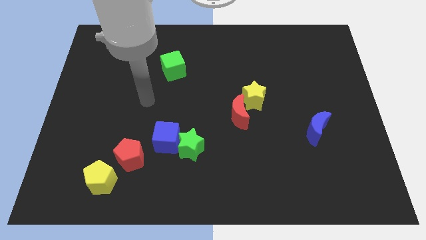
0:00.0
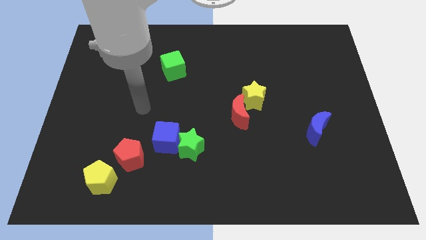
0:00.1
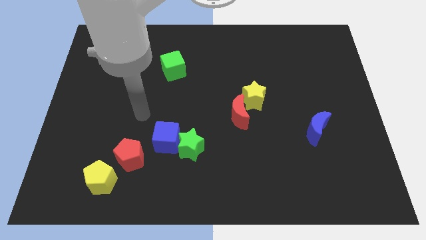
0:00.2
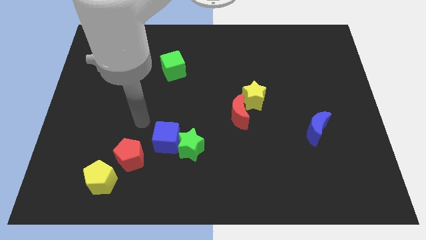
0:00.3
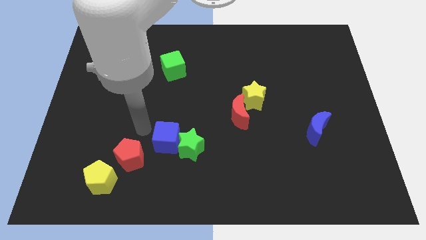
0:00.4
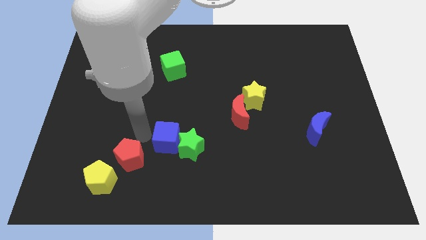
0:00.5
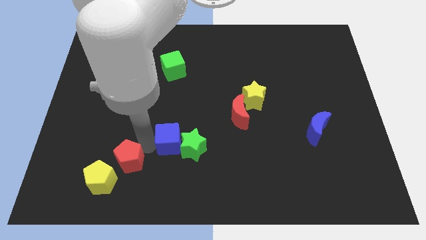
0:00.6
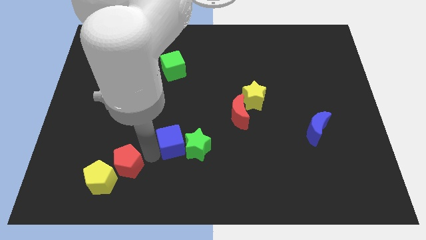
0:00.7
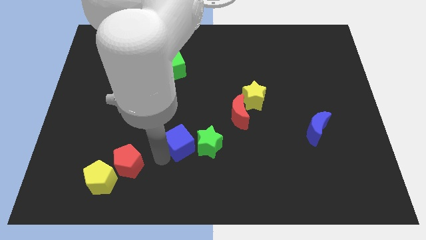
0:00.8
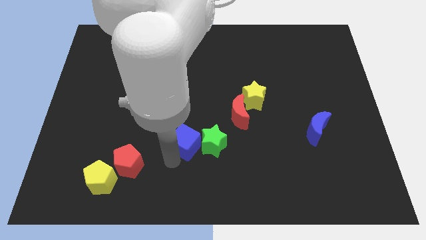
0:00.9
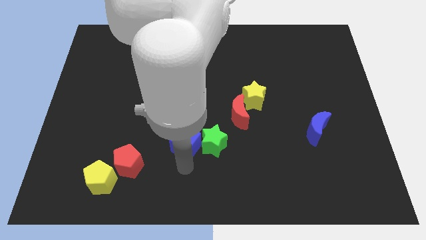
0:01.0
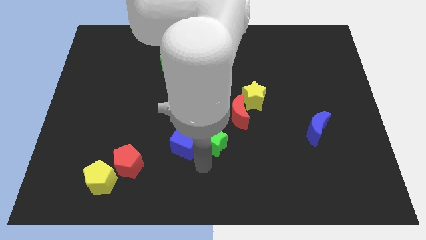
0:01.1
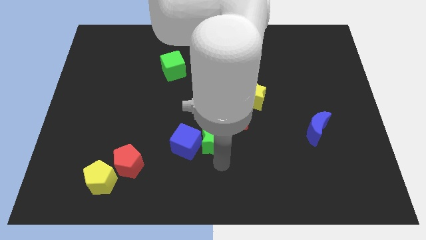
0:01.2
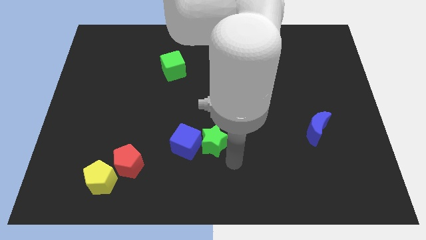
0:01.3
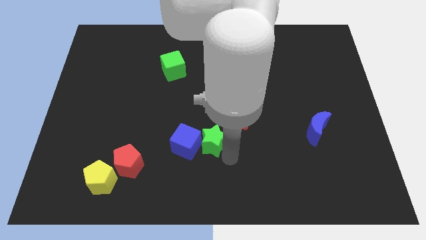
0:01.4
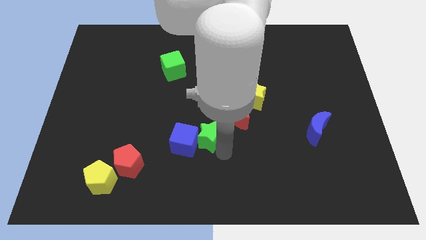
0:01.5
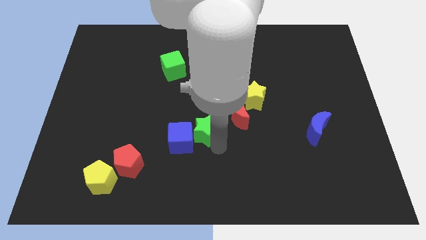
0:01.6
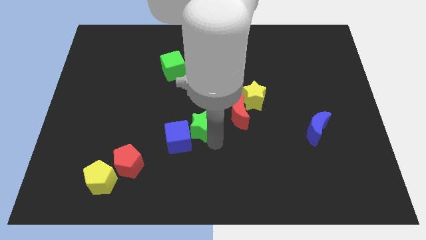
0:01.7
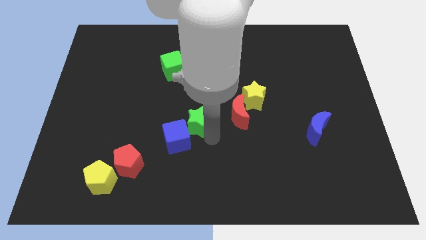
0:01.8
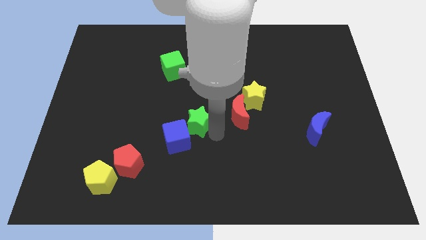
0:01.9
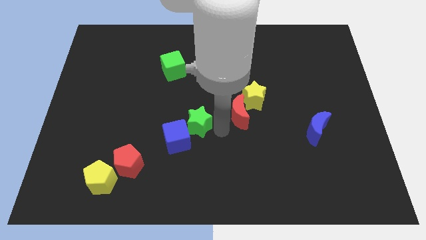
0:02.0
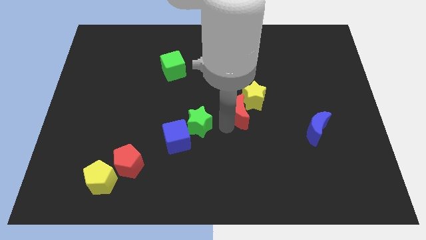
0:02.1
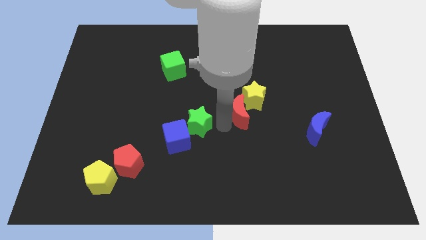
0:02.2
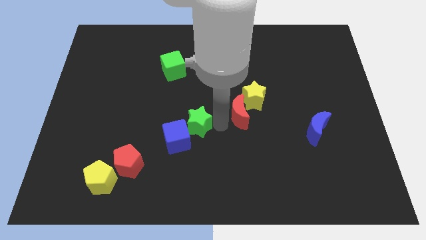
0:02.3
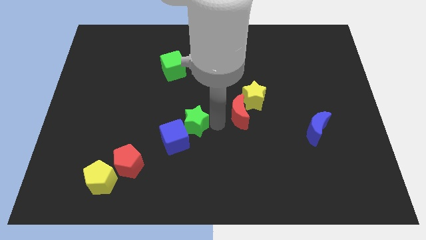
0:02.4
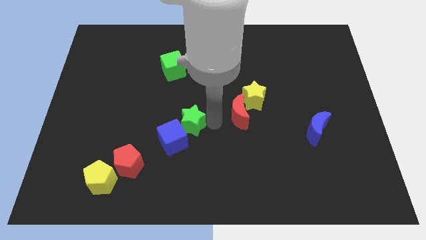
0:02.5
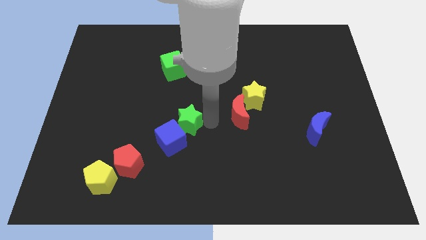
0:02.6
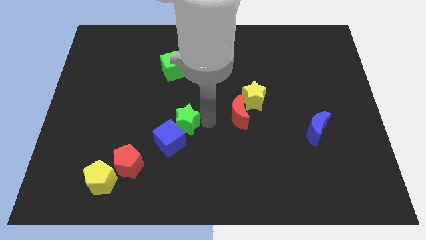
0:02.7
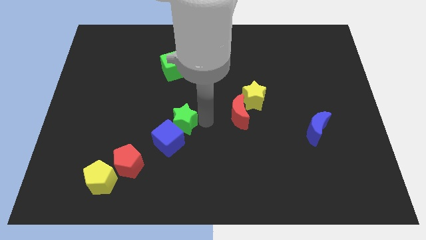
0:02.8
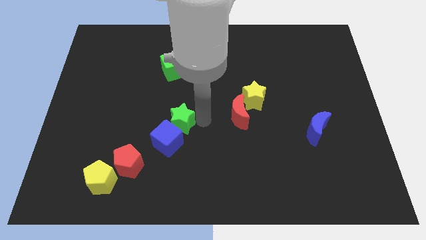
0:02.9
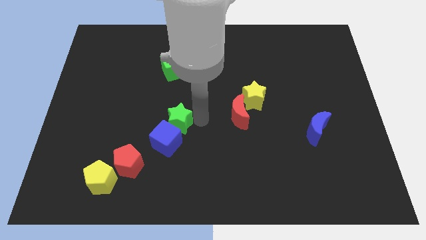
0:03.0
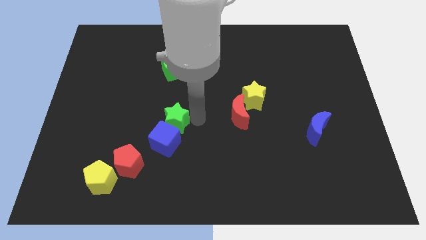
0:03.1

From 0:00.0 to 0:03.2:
push the green star upwards and to the left diagonally a bit

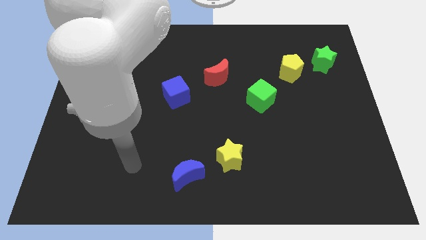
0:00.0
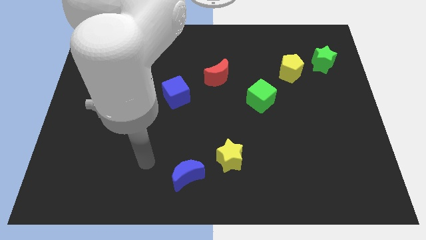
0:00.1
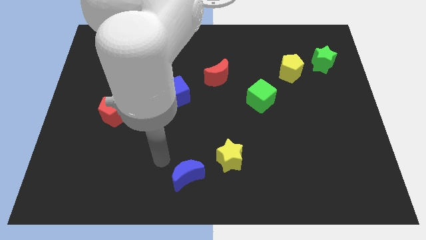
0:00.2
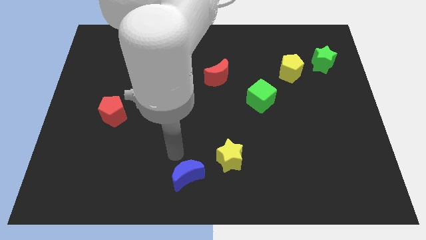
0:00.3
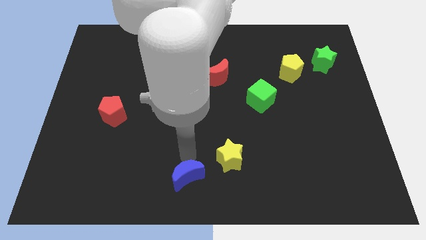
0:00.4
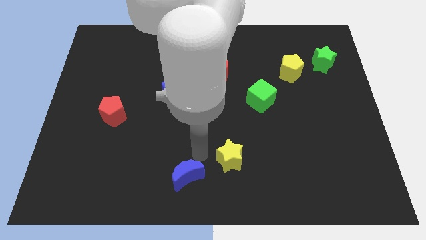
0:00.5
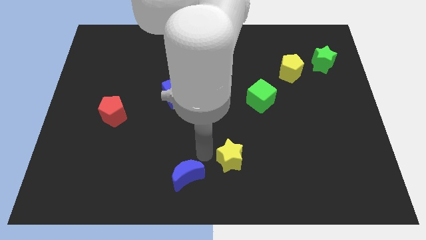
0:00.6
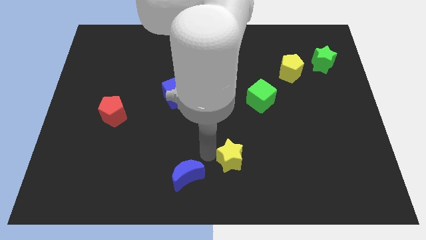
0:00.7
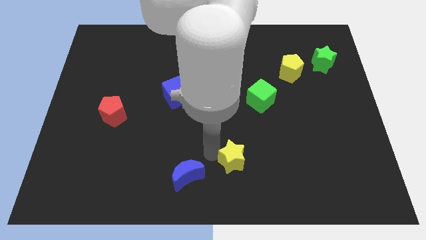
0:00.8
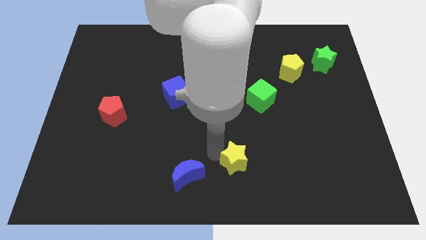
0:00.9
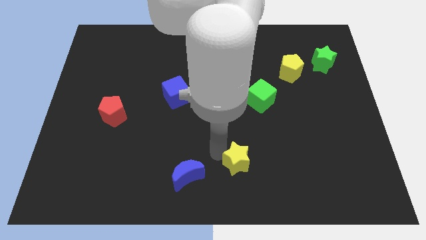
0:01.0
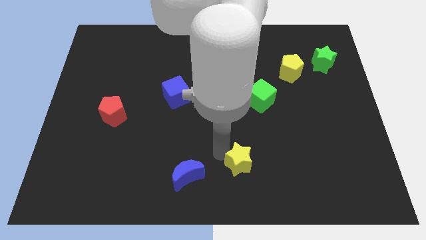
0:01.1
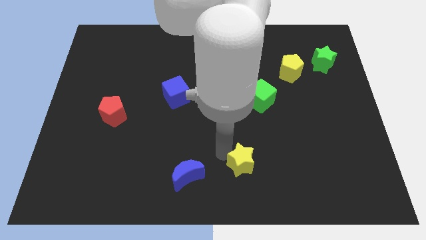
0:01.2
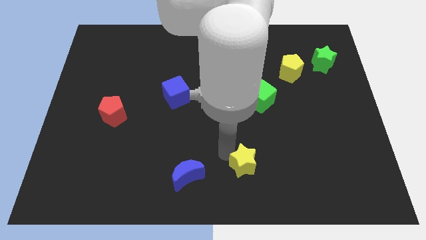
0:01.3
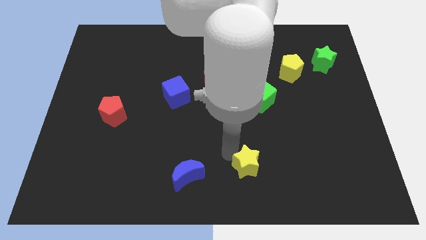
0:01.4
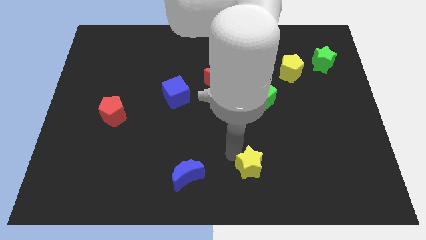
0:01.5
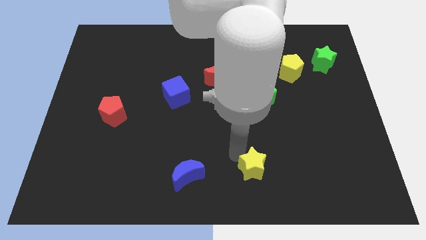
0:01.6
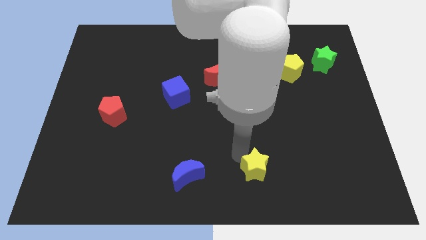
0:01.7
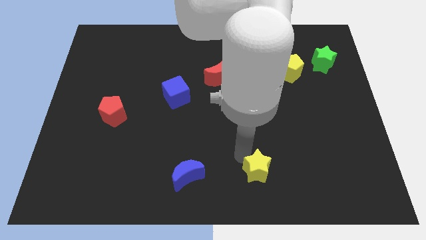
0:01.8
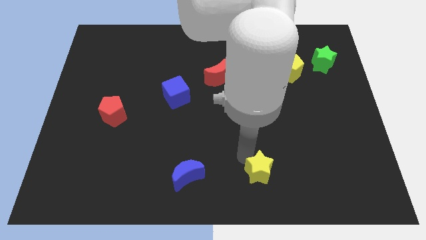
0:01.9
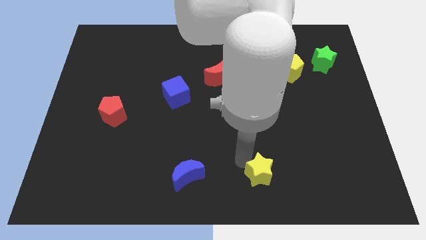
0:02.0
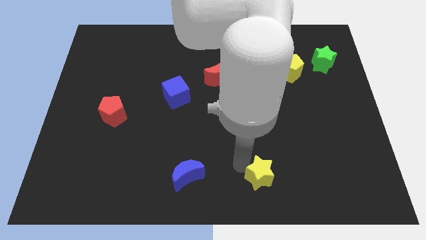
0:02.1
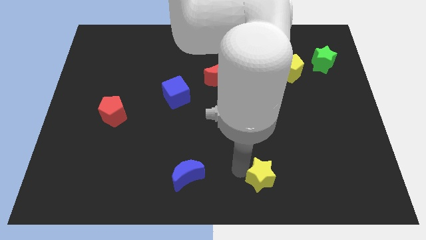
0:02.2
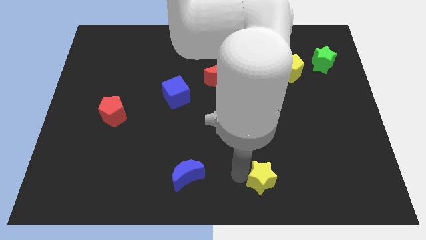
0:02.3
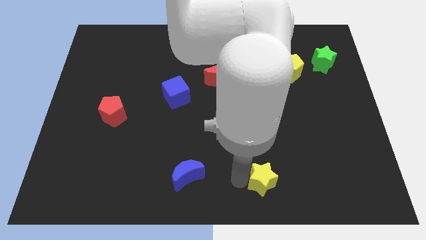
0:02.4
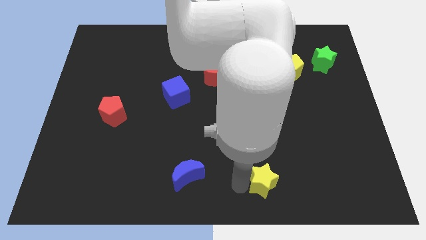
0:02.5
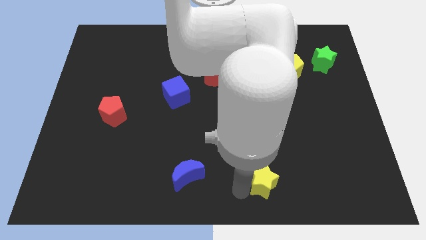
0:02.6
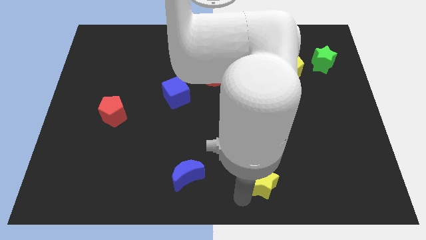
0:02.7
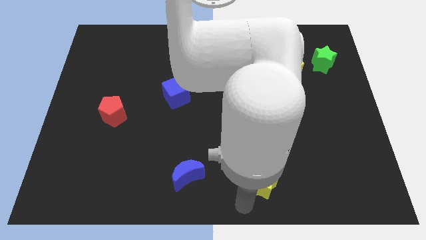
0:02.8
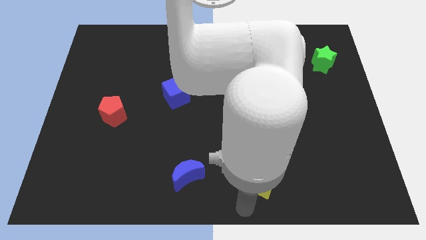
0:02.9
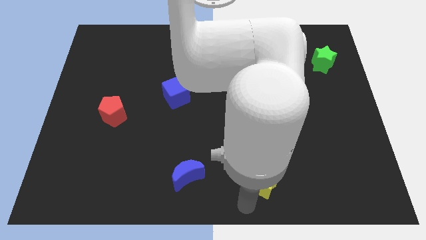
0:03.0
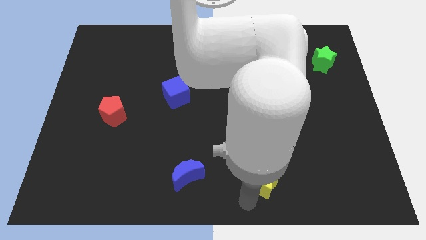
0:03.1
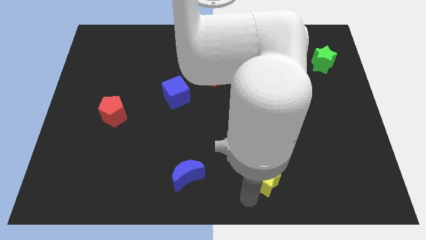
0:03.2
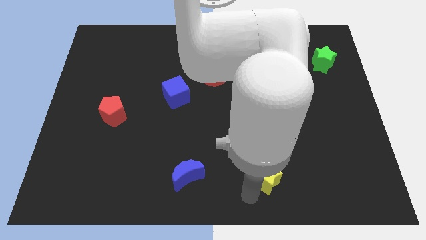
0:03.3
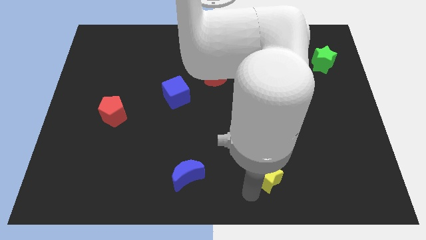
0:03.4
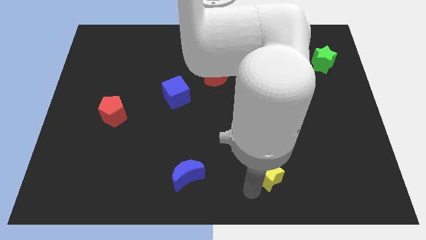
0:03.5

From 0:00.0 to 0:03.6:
slide the yellow star a little to the right

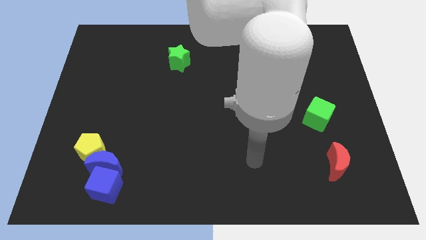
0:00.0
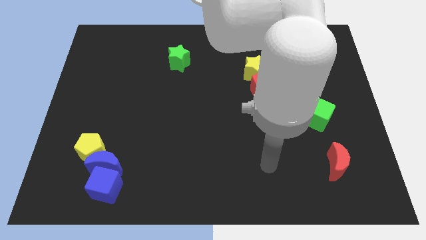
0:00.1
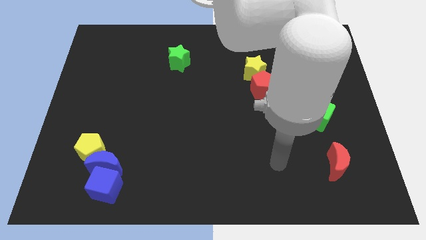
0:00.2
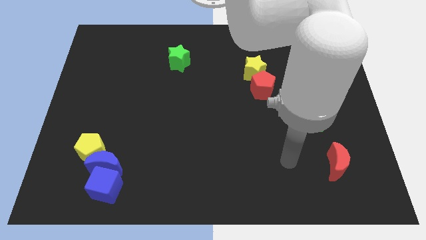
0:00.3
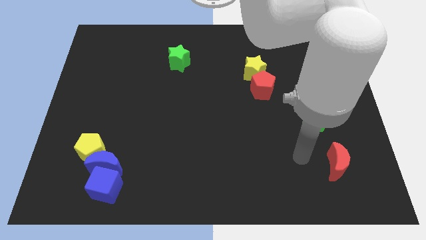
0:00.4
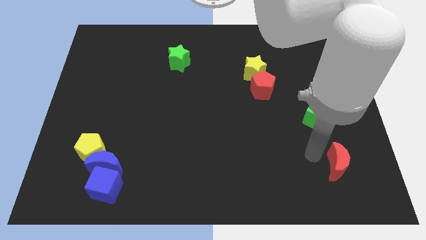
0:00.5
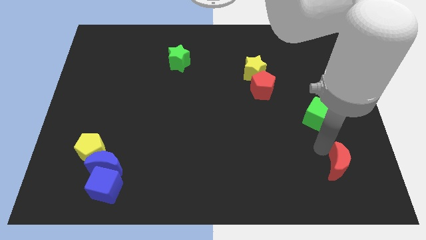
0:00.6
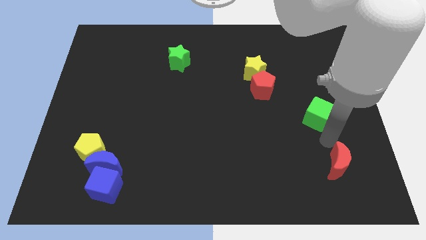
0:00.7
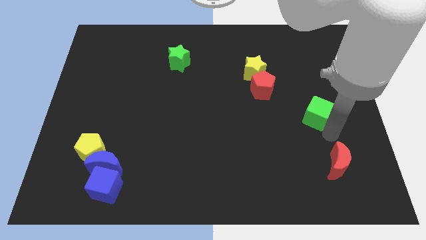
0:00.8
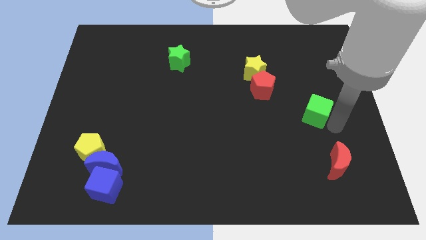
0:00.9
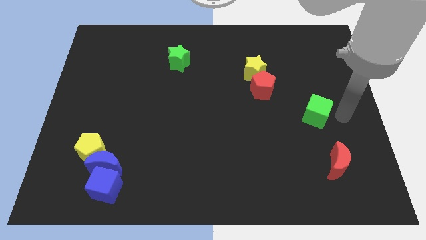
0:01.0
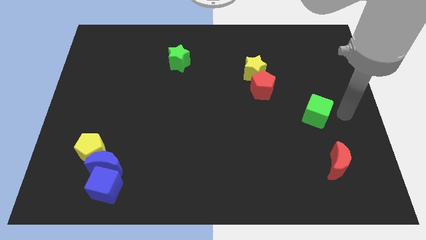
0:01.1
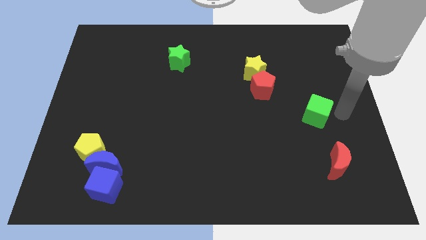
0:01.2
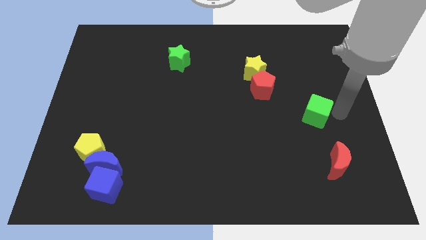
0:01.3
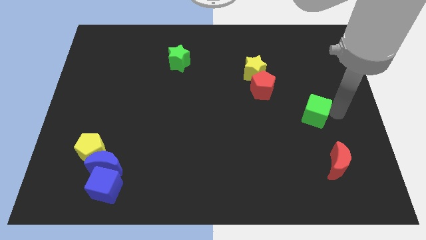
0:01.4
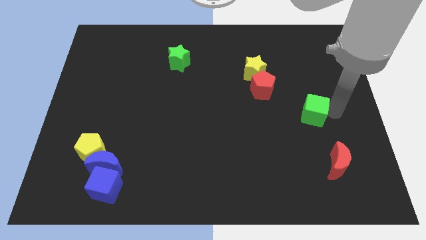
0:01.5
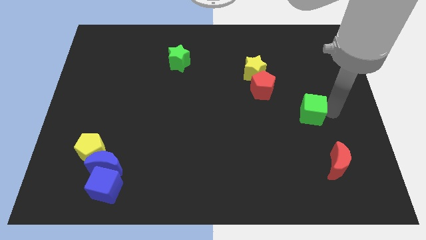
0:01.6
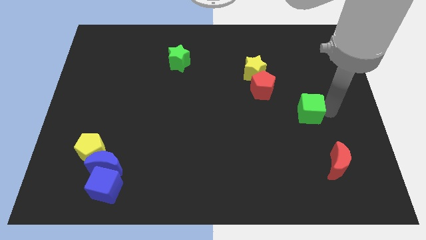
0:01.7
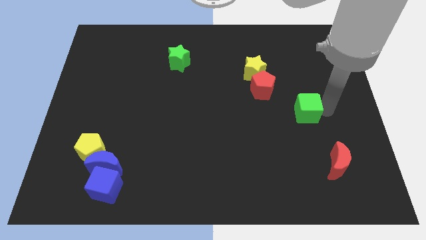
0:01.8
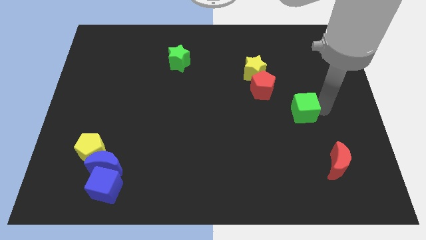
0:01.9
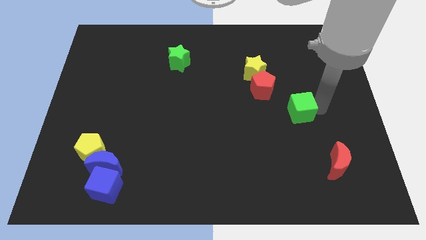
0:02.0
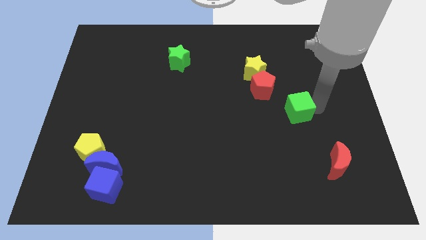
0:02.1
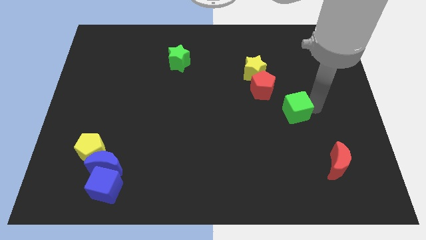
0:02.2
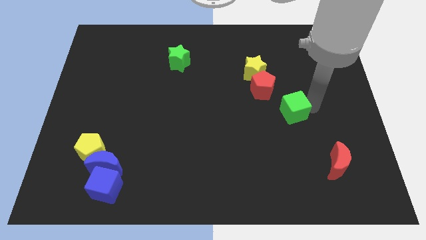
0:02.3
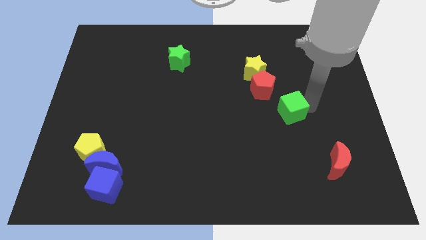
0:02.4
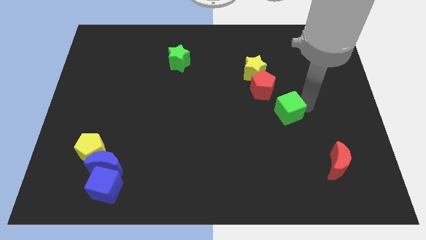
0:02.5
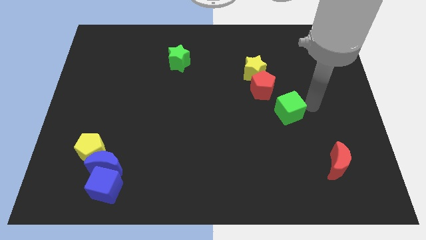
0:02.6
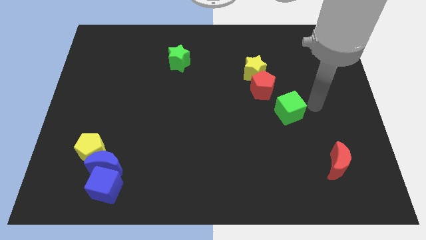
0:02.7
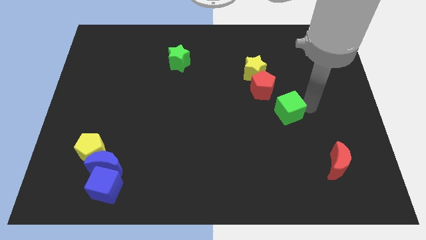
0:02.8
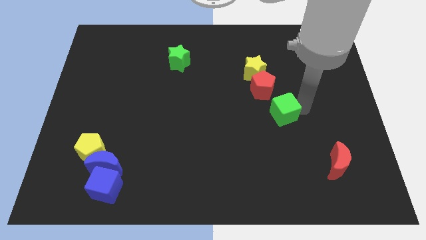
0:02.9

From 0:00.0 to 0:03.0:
slightly slide the green cube to the left
